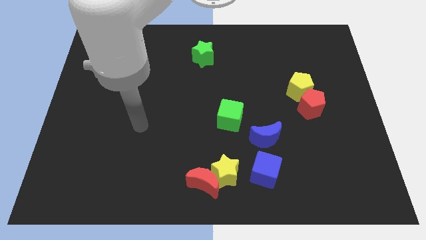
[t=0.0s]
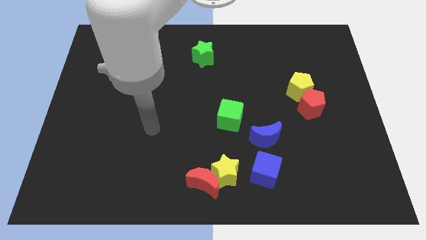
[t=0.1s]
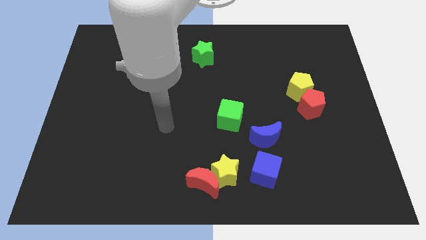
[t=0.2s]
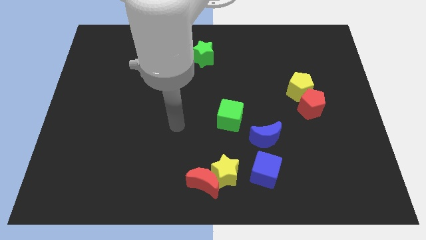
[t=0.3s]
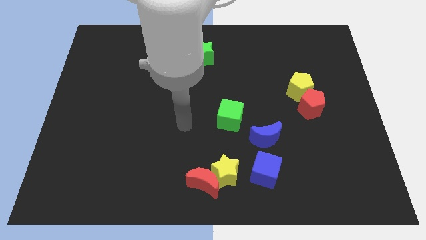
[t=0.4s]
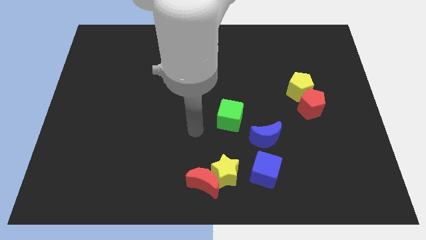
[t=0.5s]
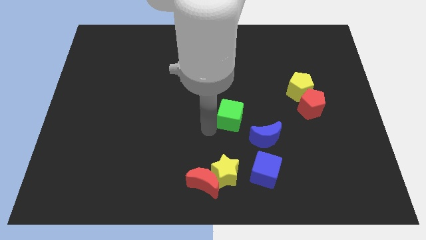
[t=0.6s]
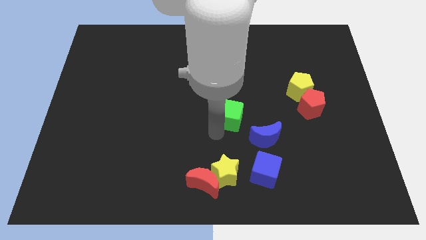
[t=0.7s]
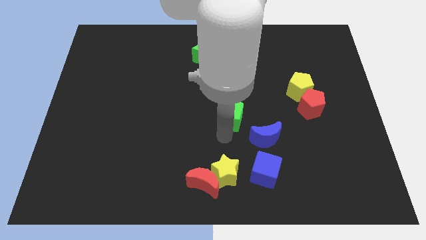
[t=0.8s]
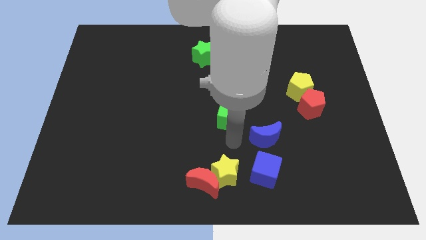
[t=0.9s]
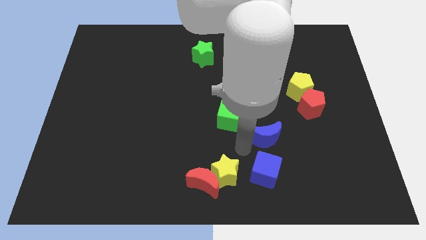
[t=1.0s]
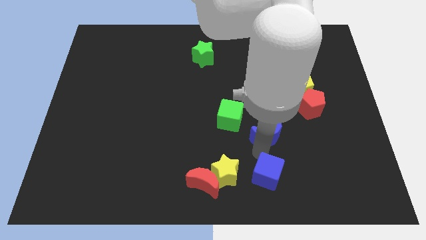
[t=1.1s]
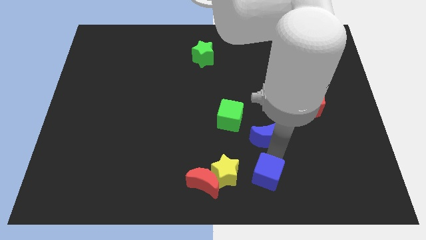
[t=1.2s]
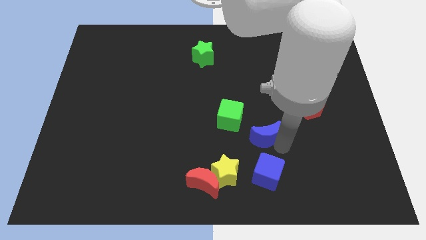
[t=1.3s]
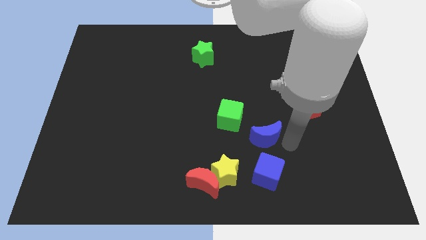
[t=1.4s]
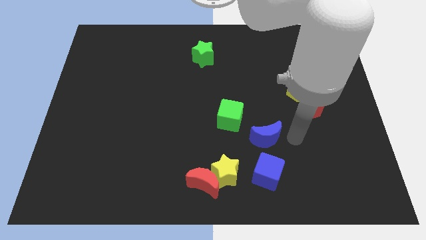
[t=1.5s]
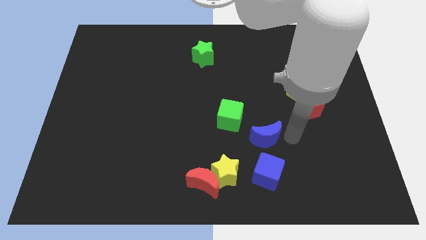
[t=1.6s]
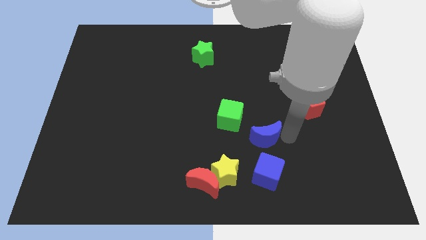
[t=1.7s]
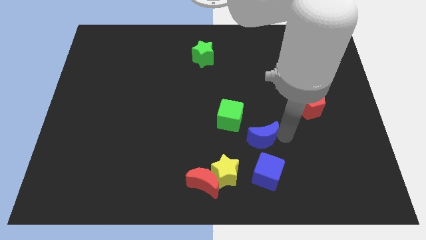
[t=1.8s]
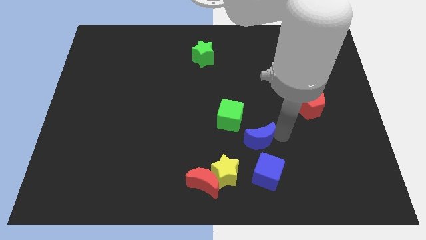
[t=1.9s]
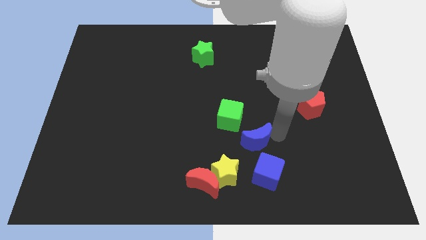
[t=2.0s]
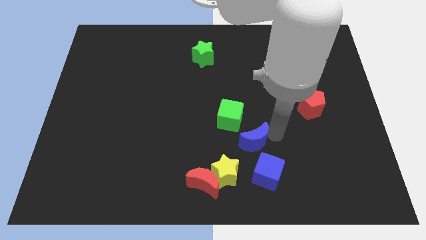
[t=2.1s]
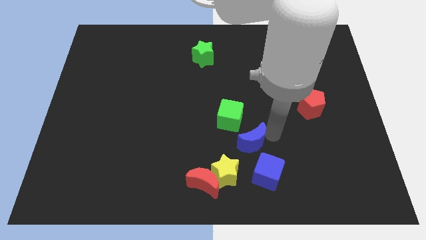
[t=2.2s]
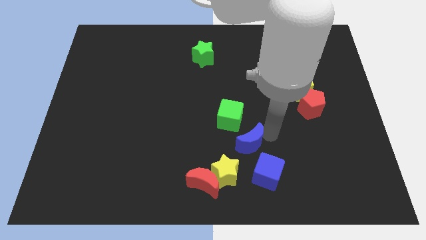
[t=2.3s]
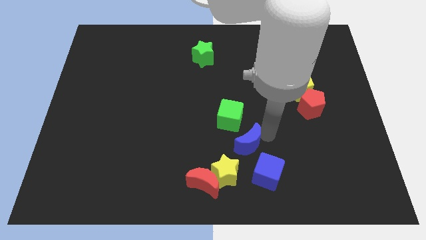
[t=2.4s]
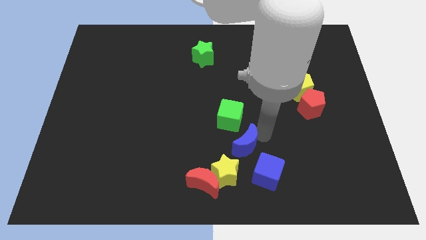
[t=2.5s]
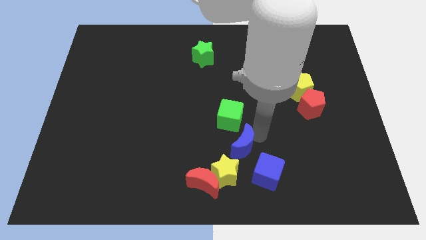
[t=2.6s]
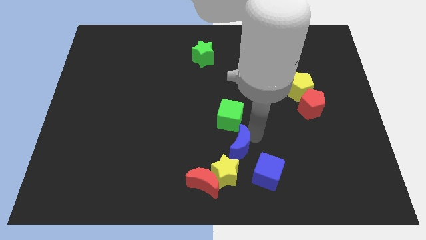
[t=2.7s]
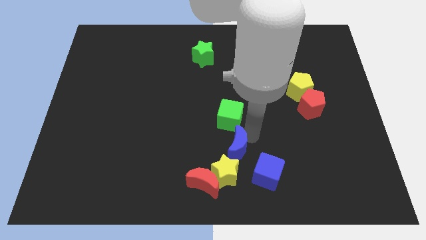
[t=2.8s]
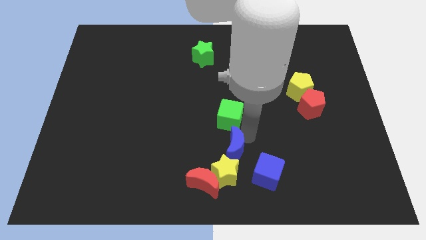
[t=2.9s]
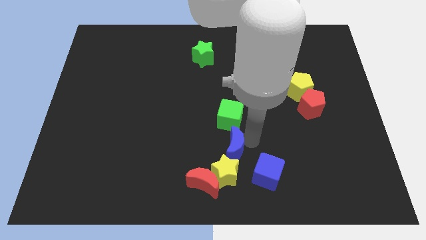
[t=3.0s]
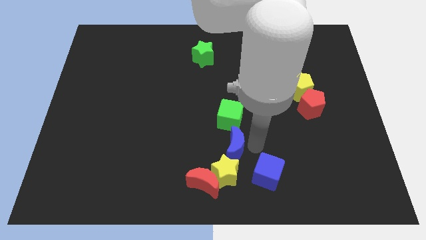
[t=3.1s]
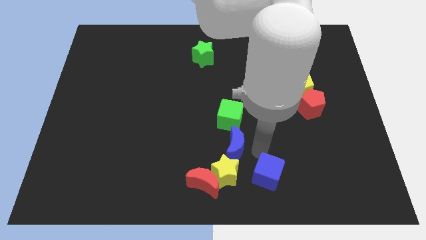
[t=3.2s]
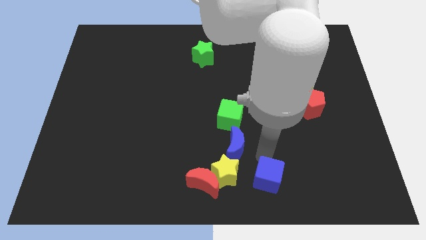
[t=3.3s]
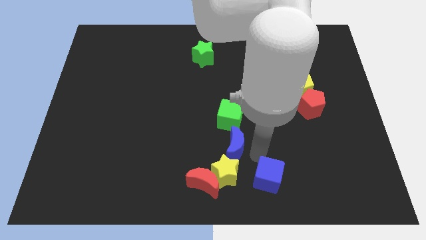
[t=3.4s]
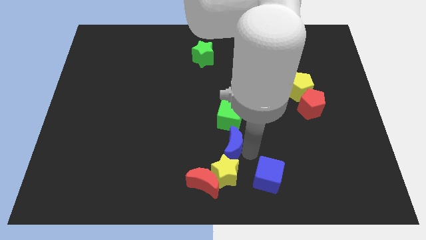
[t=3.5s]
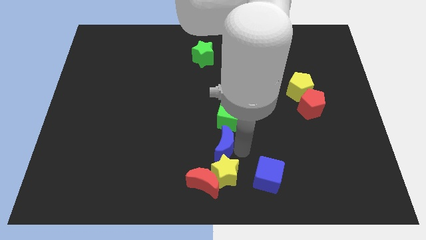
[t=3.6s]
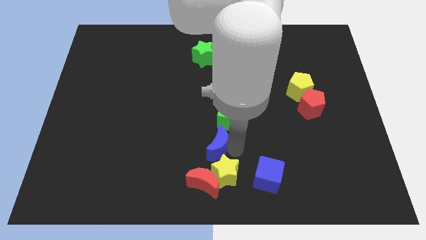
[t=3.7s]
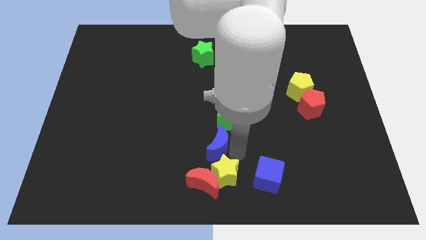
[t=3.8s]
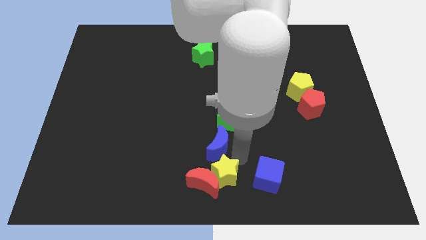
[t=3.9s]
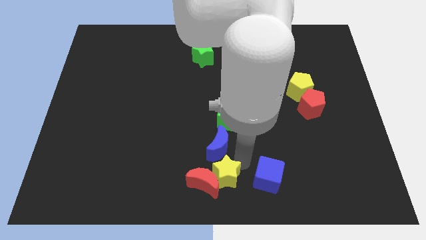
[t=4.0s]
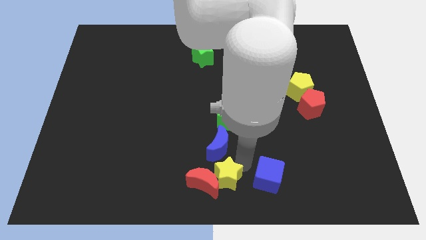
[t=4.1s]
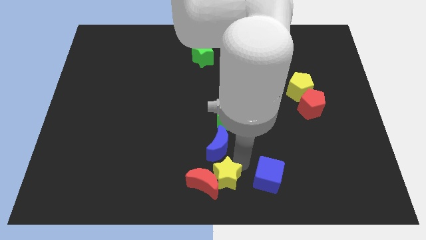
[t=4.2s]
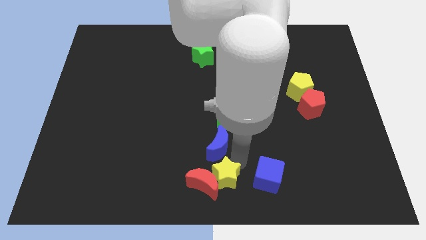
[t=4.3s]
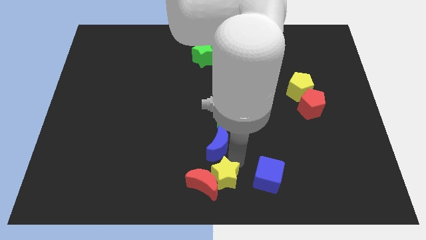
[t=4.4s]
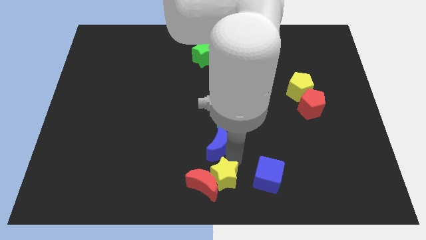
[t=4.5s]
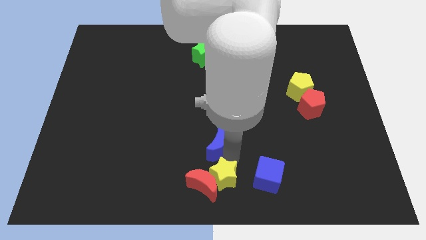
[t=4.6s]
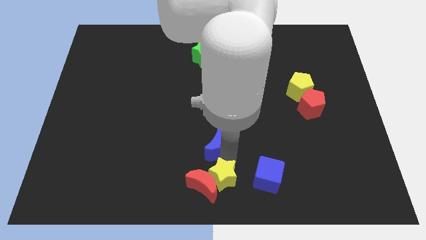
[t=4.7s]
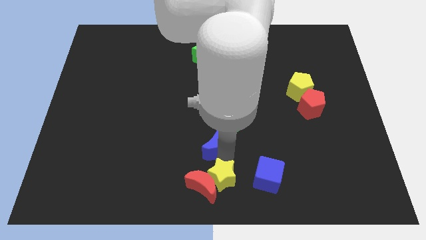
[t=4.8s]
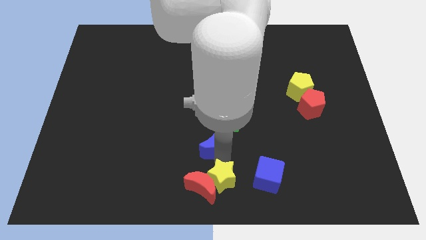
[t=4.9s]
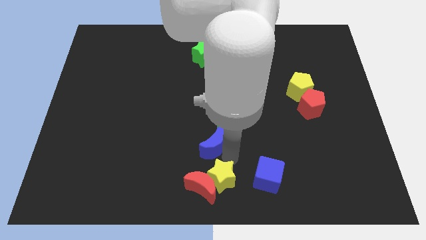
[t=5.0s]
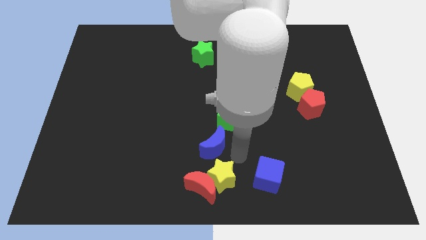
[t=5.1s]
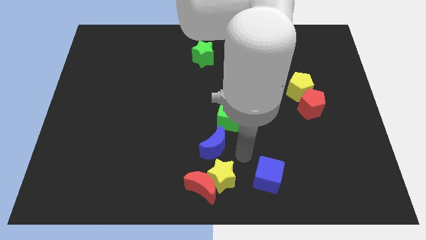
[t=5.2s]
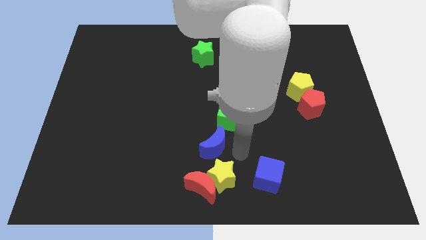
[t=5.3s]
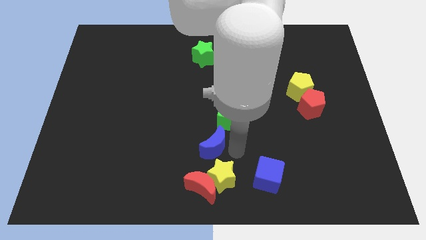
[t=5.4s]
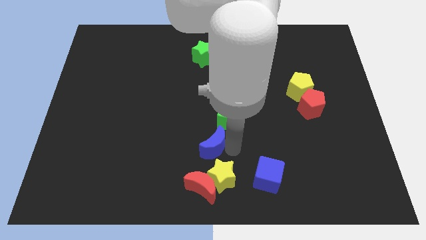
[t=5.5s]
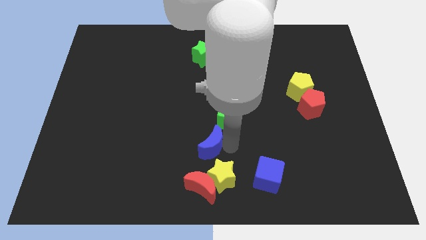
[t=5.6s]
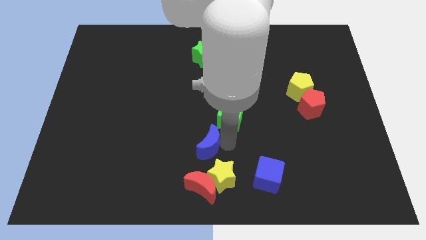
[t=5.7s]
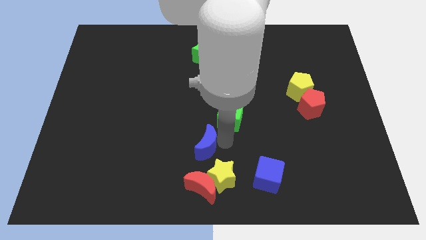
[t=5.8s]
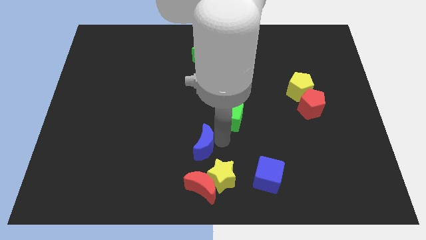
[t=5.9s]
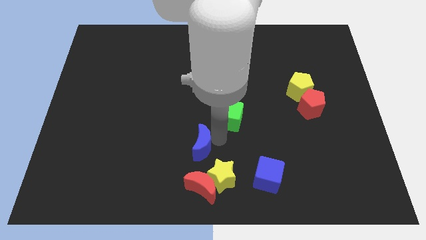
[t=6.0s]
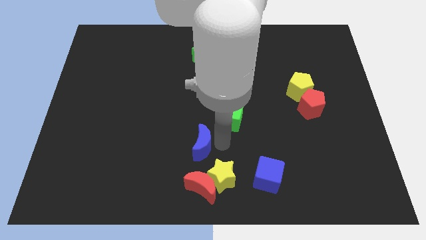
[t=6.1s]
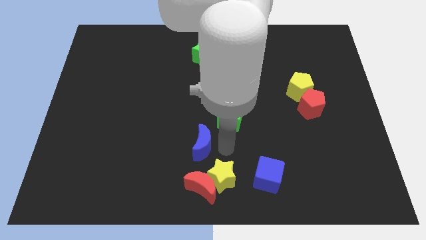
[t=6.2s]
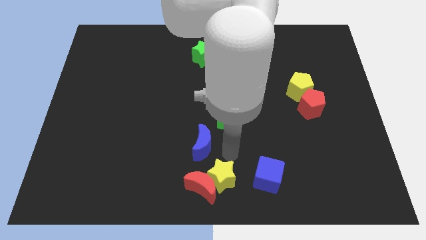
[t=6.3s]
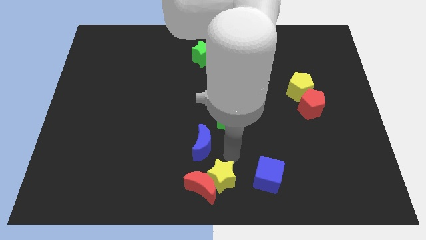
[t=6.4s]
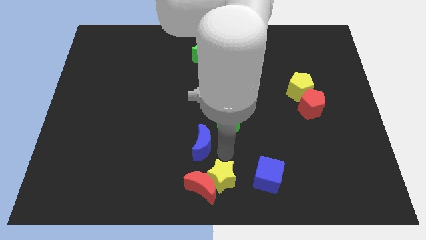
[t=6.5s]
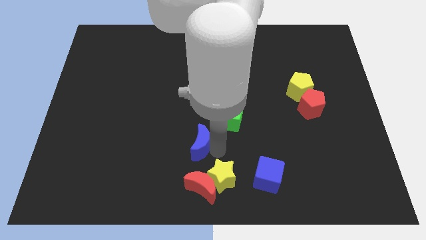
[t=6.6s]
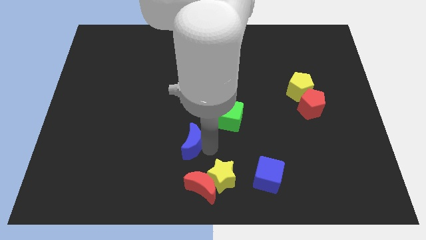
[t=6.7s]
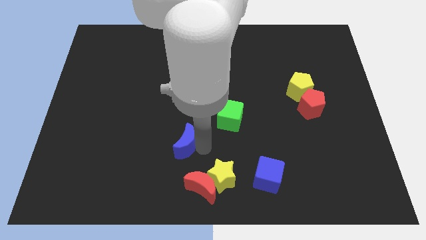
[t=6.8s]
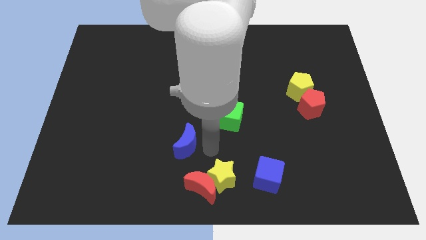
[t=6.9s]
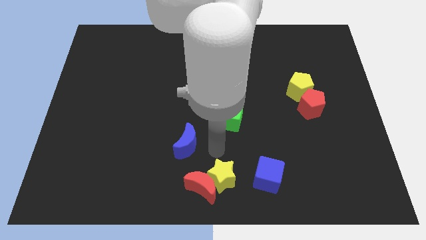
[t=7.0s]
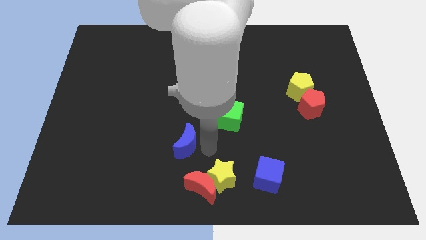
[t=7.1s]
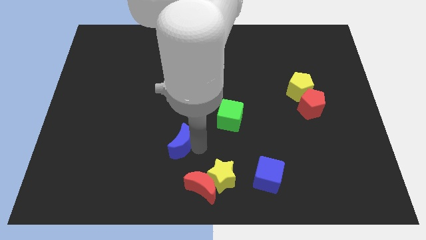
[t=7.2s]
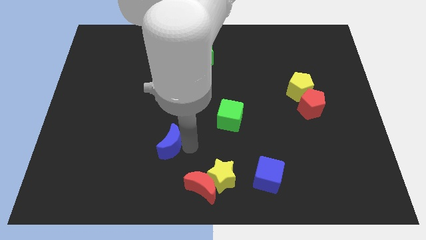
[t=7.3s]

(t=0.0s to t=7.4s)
push the blue moon left

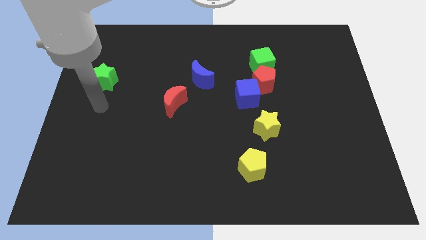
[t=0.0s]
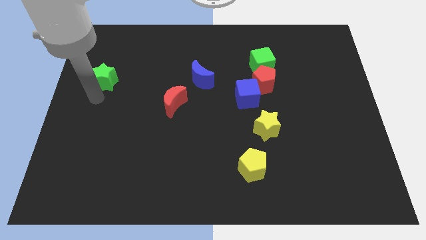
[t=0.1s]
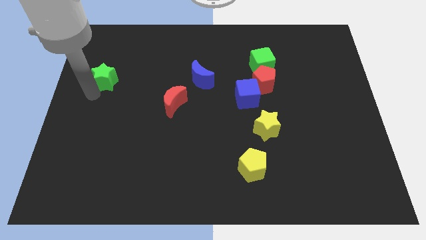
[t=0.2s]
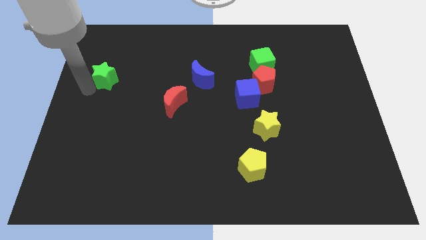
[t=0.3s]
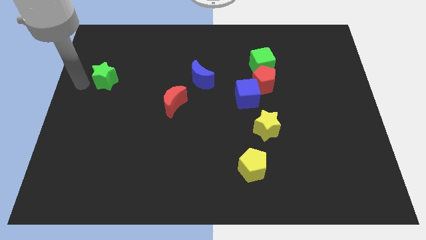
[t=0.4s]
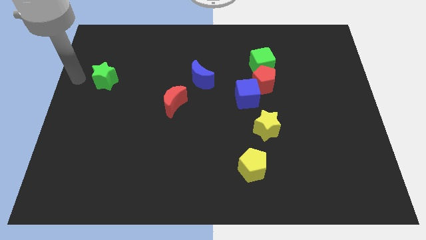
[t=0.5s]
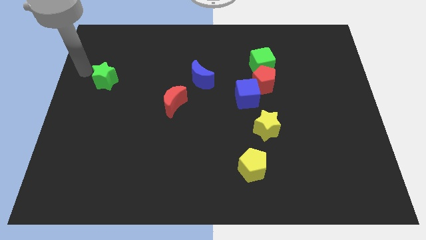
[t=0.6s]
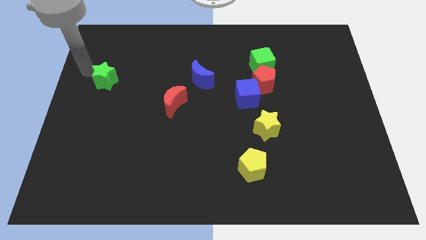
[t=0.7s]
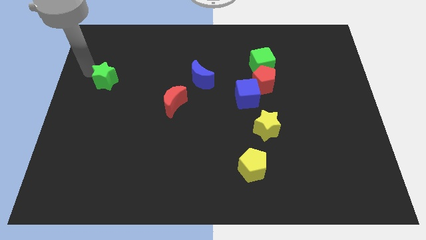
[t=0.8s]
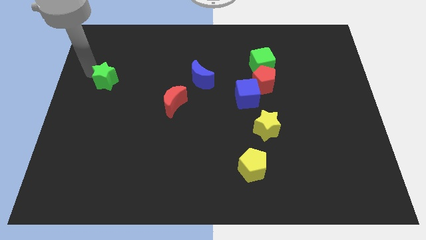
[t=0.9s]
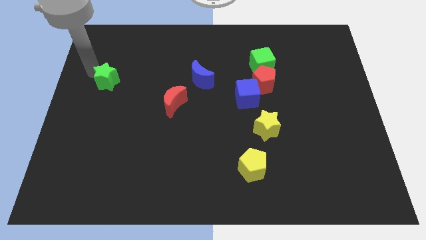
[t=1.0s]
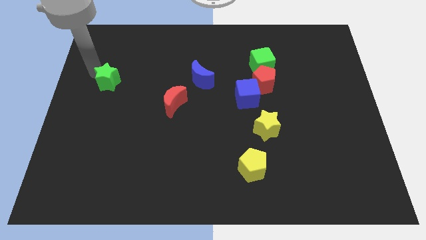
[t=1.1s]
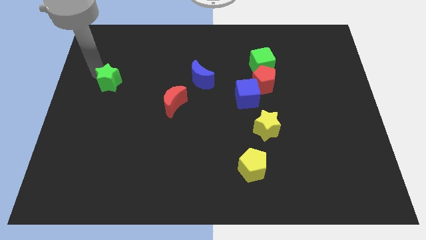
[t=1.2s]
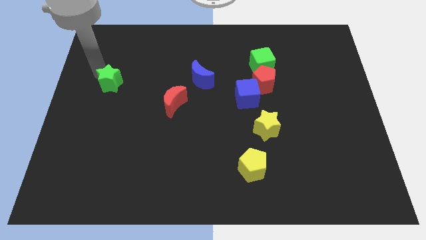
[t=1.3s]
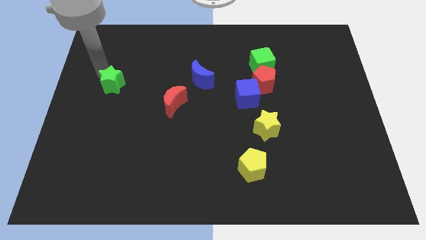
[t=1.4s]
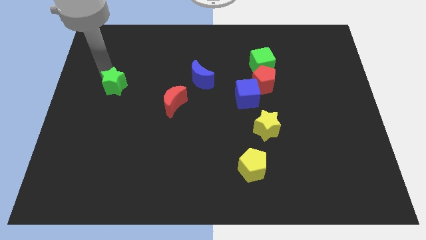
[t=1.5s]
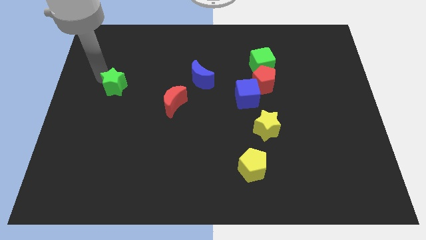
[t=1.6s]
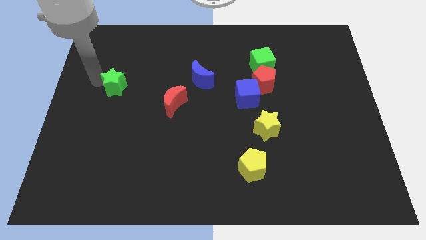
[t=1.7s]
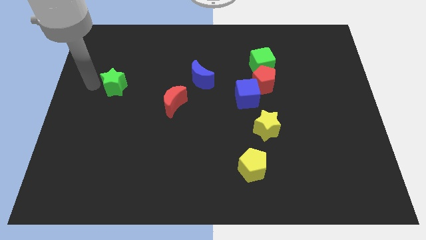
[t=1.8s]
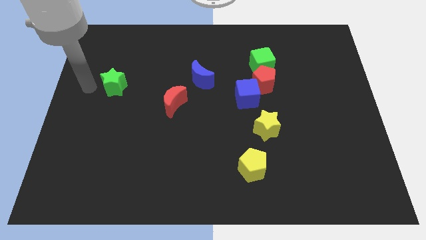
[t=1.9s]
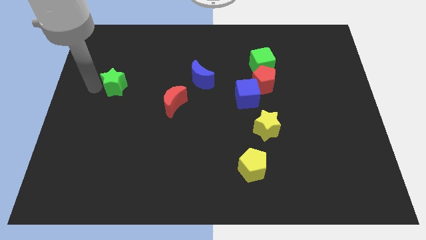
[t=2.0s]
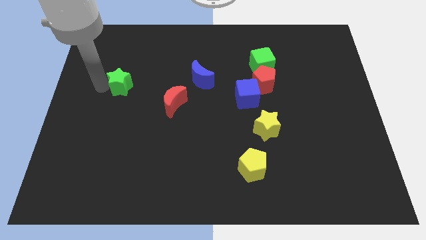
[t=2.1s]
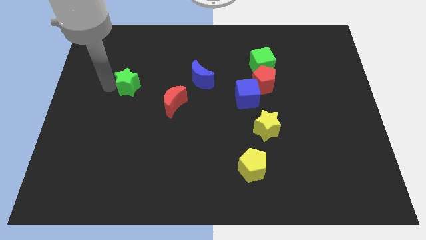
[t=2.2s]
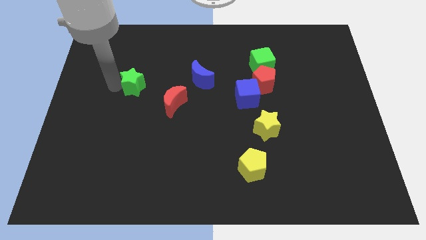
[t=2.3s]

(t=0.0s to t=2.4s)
slightly move the green star to the right
